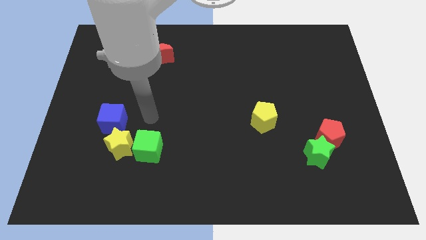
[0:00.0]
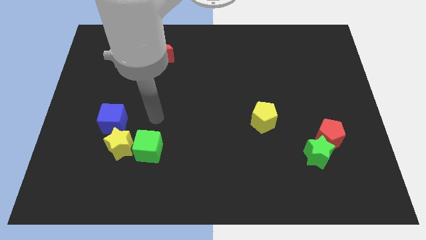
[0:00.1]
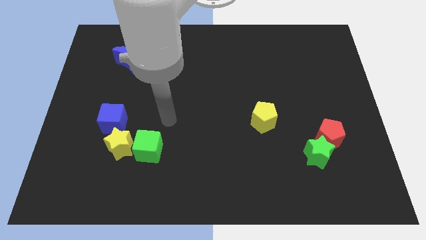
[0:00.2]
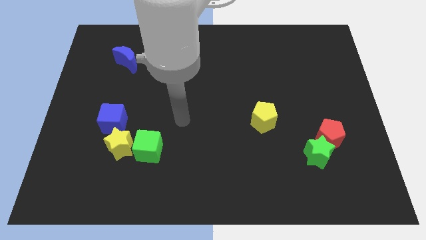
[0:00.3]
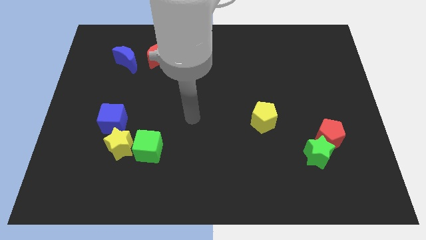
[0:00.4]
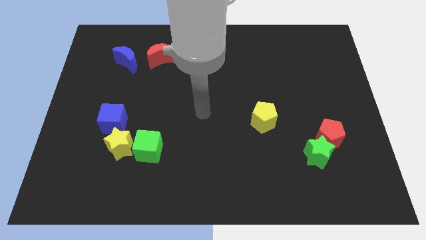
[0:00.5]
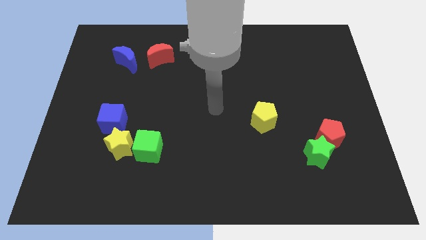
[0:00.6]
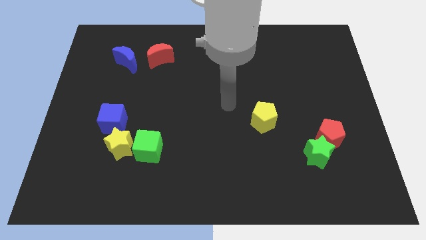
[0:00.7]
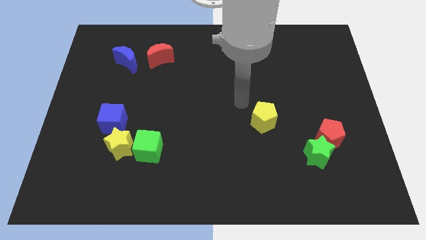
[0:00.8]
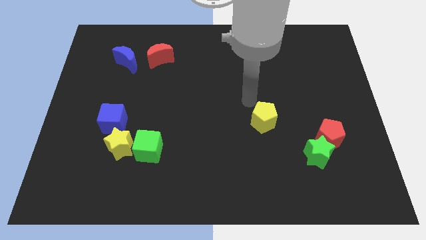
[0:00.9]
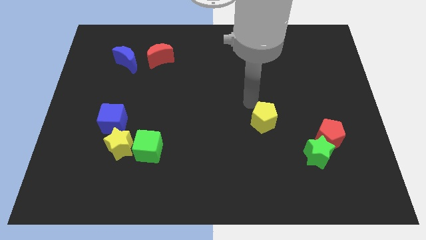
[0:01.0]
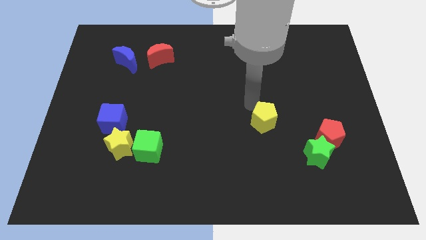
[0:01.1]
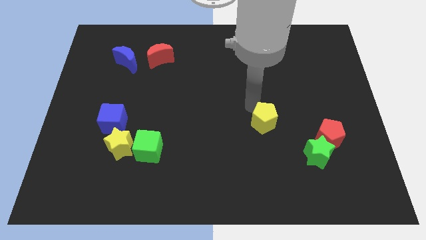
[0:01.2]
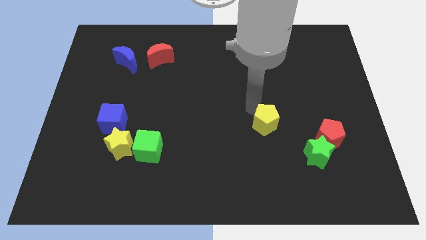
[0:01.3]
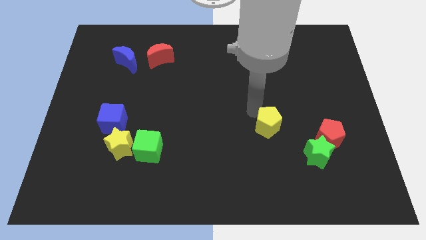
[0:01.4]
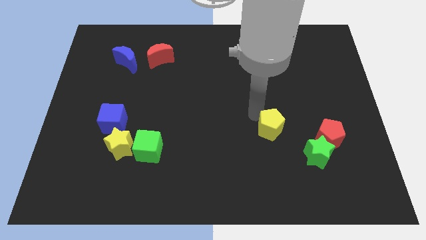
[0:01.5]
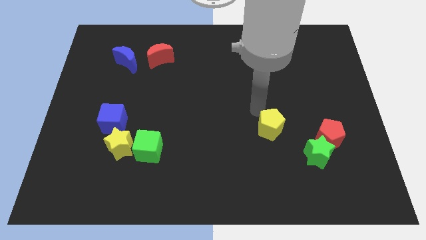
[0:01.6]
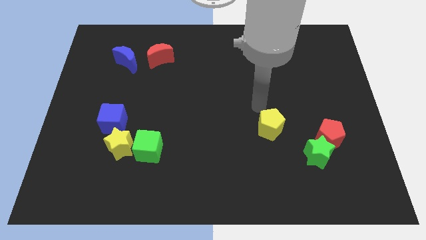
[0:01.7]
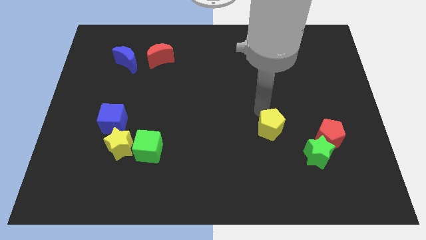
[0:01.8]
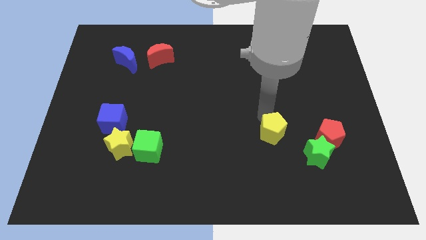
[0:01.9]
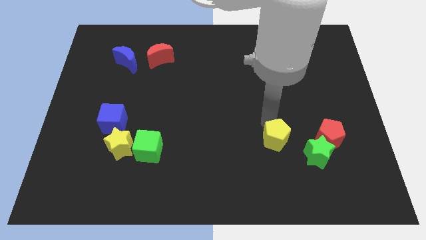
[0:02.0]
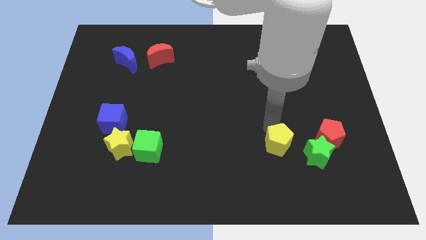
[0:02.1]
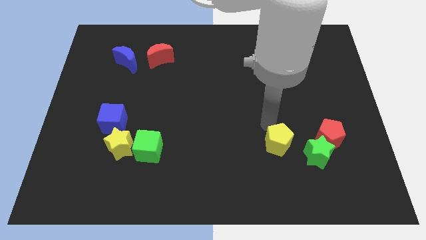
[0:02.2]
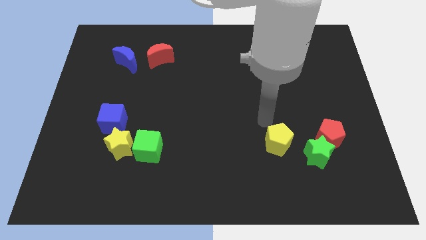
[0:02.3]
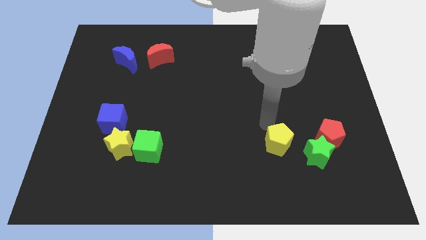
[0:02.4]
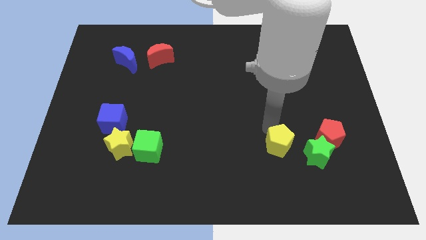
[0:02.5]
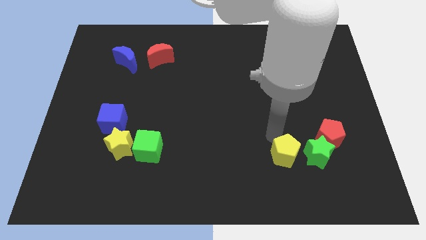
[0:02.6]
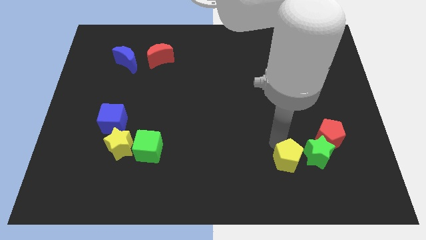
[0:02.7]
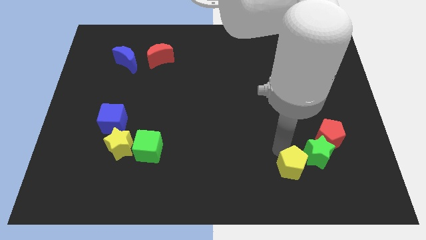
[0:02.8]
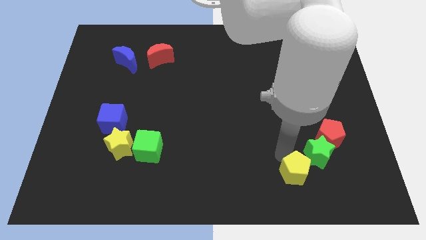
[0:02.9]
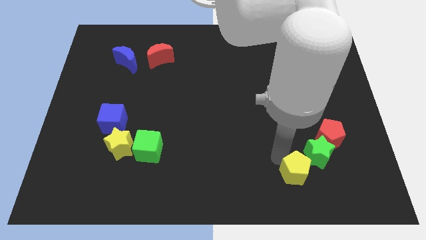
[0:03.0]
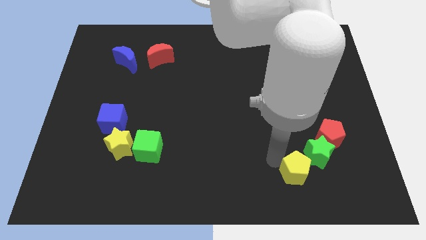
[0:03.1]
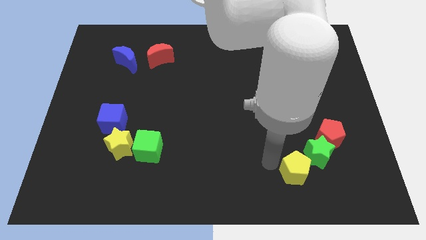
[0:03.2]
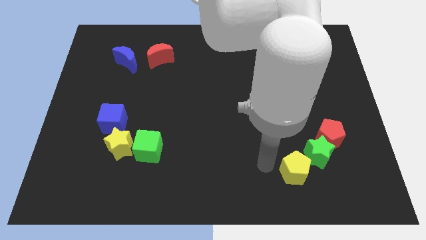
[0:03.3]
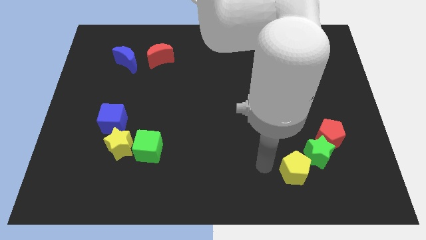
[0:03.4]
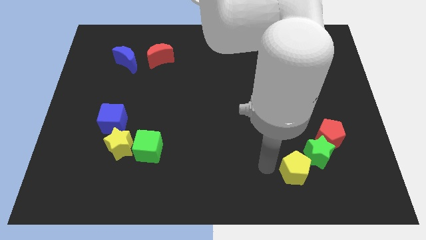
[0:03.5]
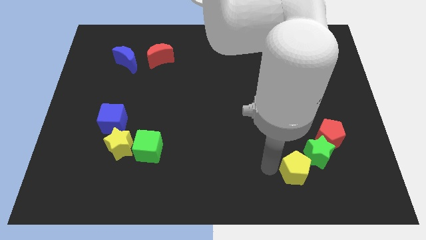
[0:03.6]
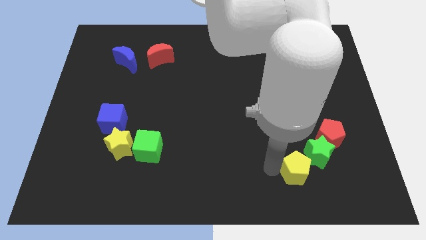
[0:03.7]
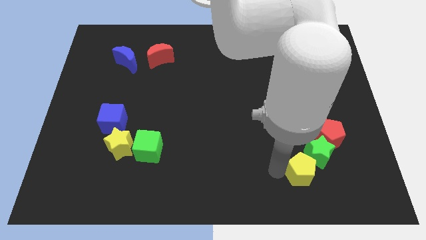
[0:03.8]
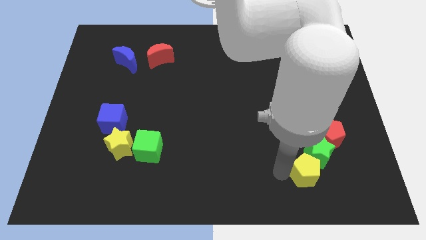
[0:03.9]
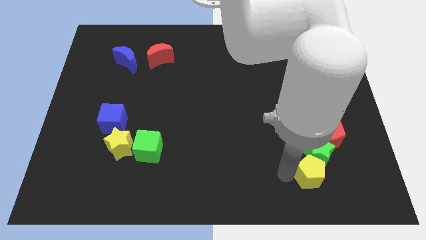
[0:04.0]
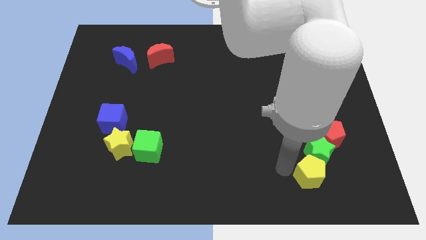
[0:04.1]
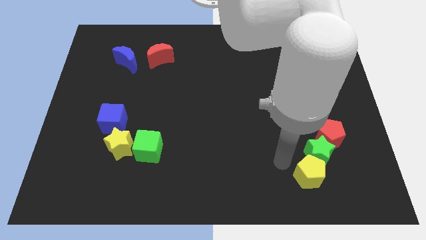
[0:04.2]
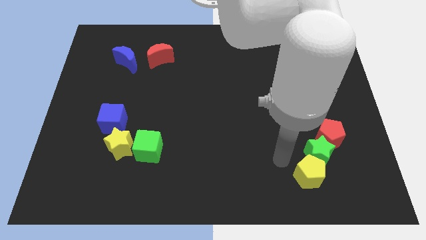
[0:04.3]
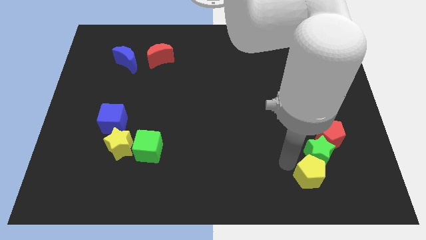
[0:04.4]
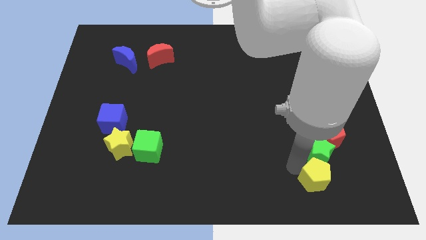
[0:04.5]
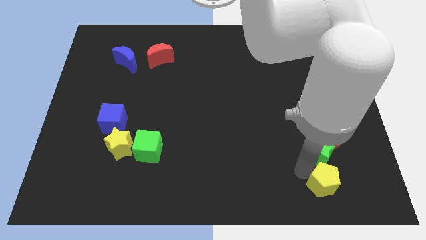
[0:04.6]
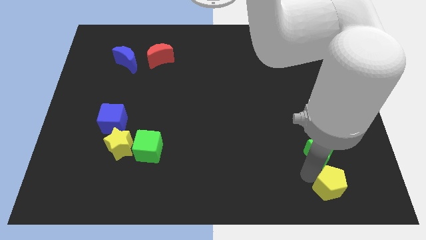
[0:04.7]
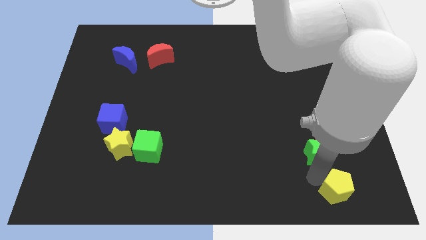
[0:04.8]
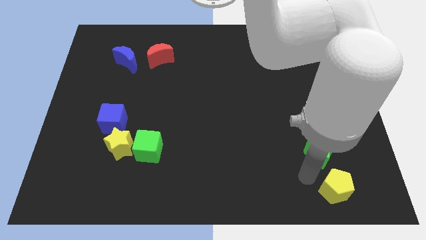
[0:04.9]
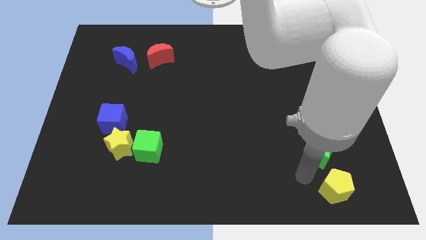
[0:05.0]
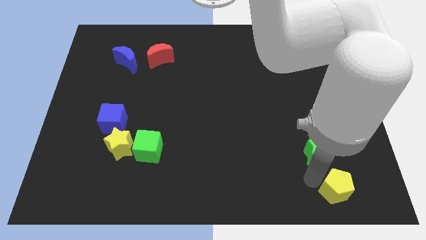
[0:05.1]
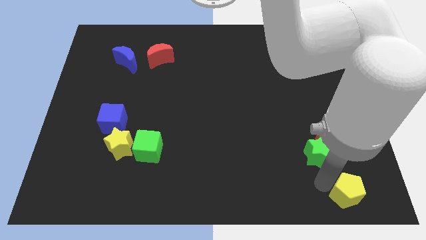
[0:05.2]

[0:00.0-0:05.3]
put the yellow pentagon to the lower right corner

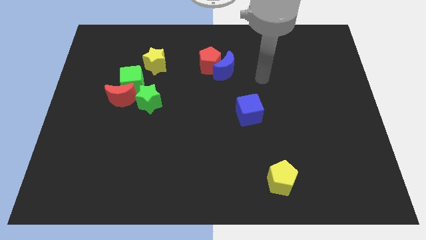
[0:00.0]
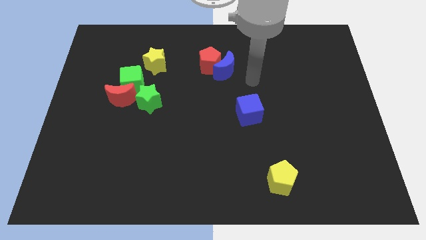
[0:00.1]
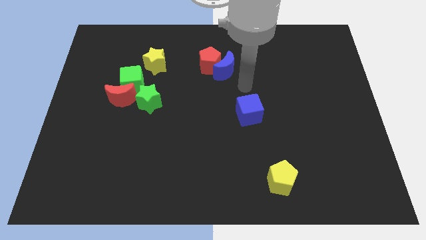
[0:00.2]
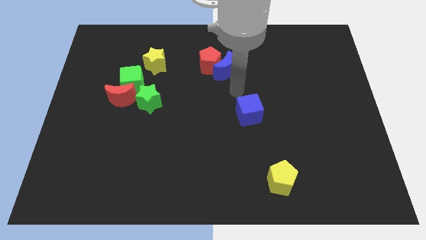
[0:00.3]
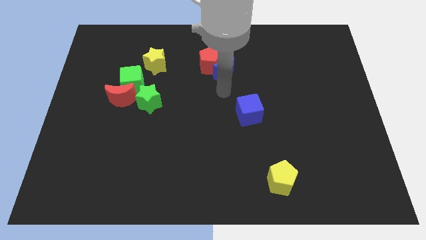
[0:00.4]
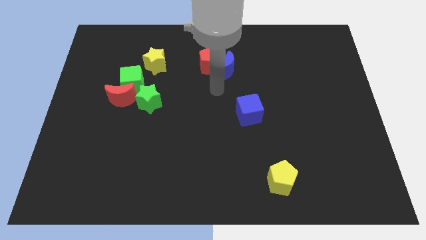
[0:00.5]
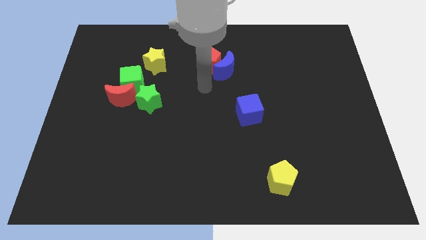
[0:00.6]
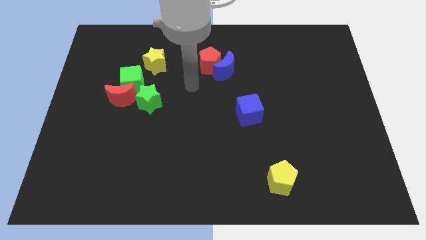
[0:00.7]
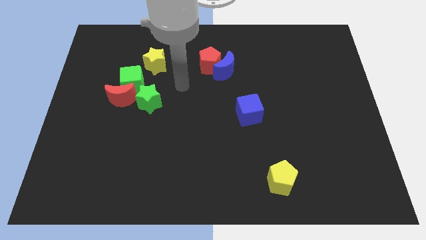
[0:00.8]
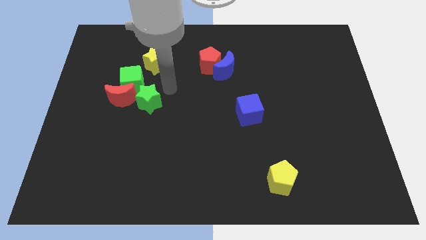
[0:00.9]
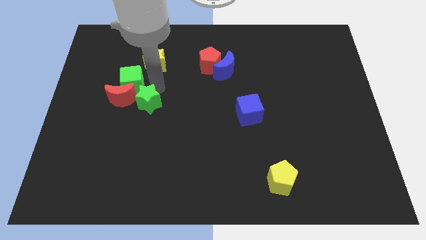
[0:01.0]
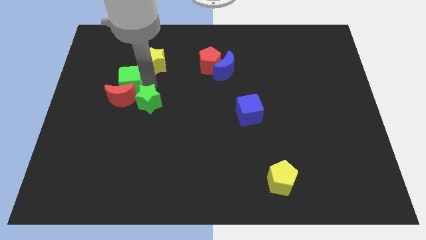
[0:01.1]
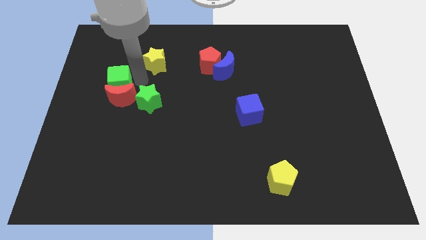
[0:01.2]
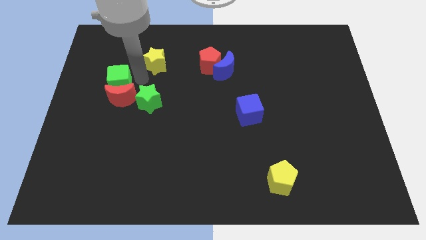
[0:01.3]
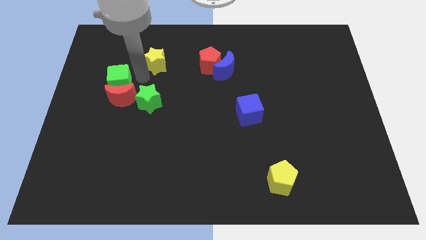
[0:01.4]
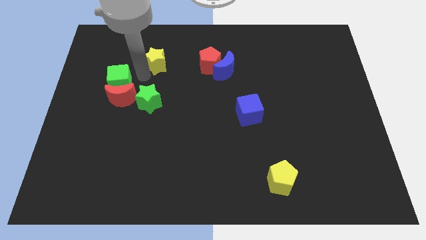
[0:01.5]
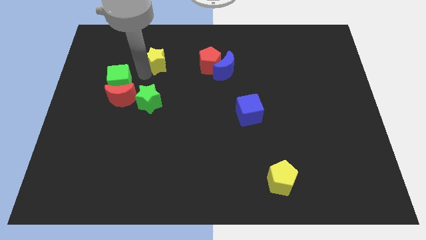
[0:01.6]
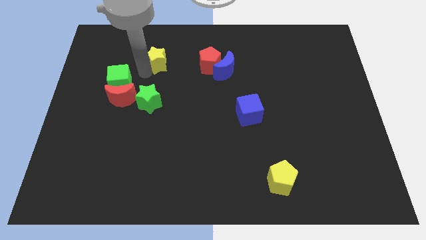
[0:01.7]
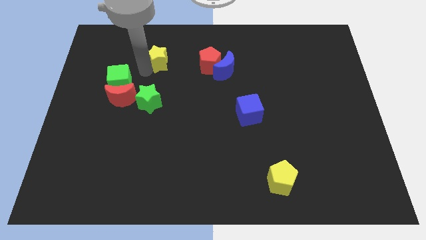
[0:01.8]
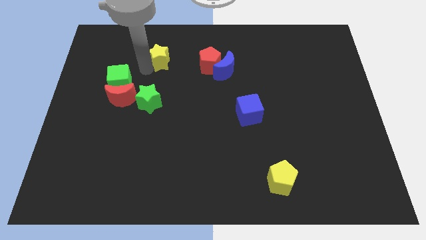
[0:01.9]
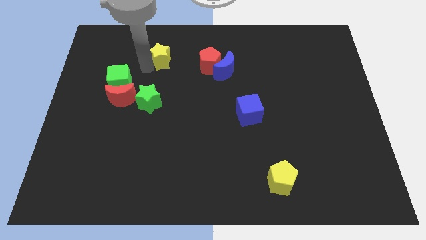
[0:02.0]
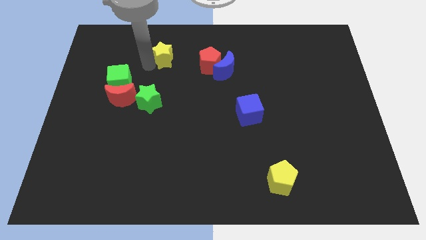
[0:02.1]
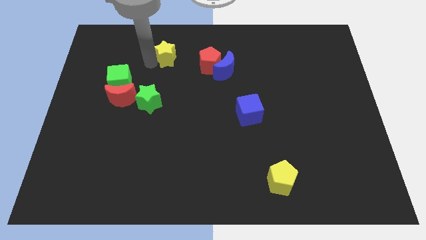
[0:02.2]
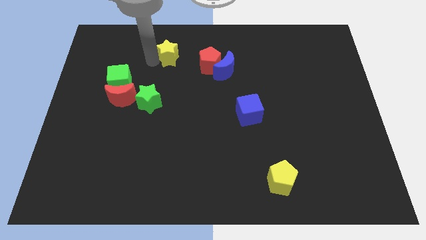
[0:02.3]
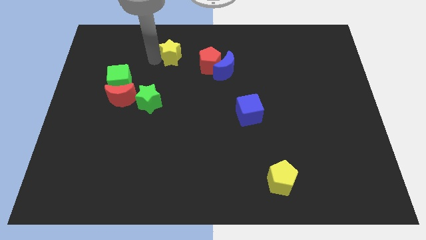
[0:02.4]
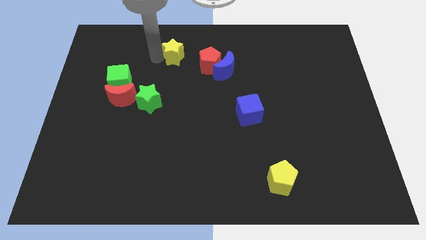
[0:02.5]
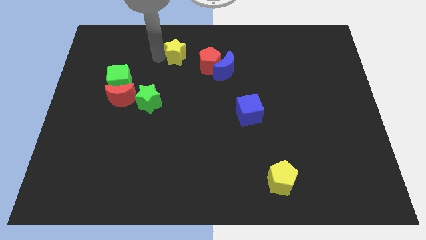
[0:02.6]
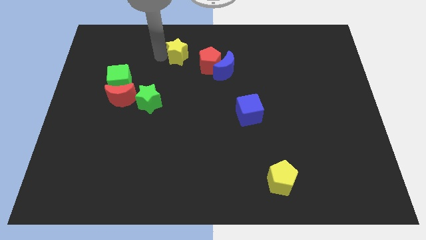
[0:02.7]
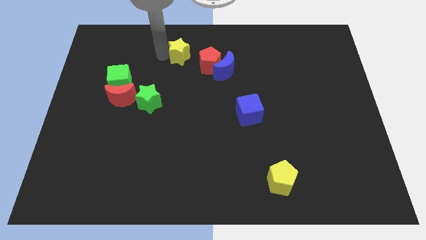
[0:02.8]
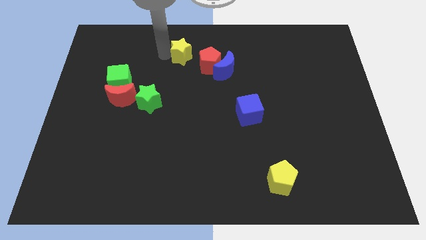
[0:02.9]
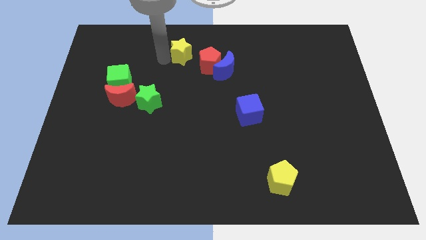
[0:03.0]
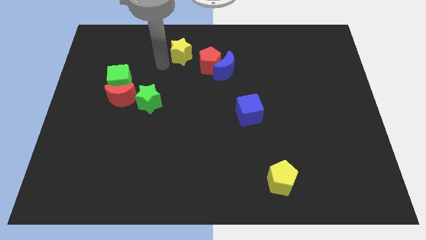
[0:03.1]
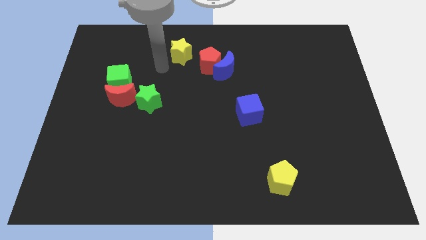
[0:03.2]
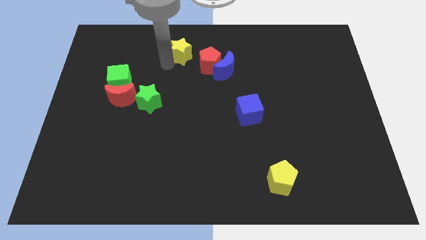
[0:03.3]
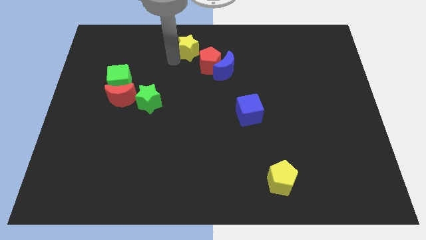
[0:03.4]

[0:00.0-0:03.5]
put the yellow star to the towards your base
